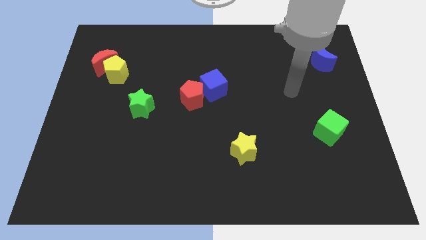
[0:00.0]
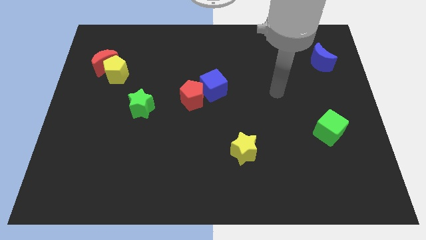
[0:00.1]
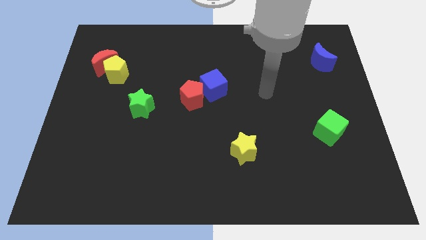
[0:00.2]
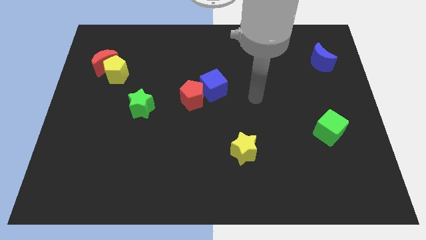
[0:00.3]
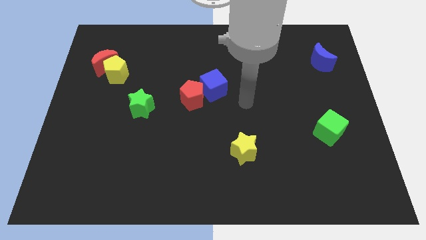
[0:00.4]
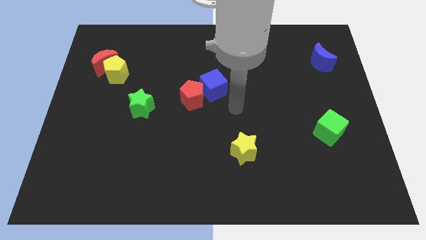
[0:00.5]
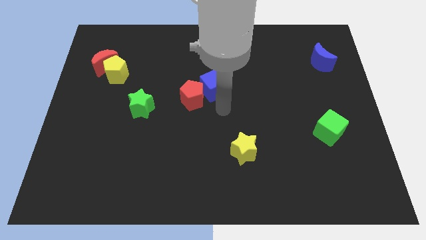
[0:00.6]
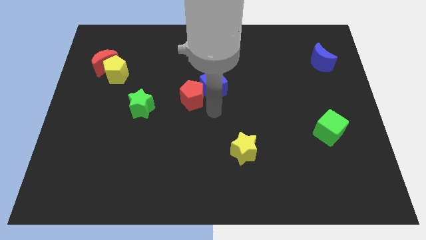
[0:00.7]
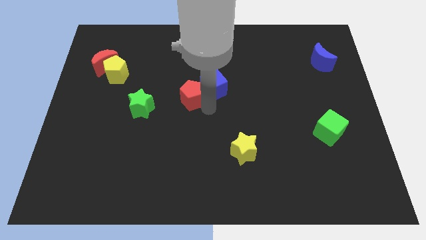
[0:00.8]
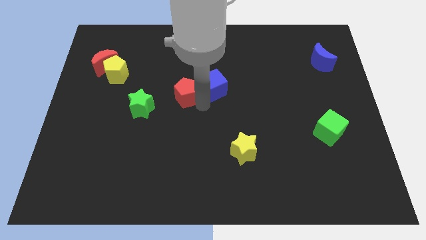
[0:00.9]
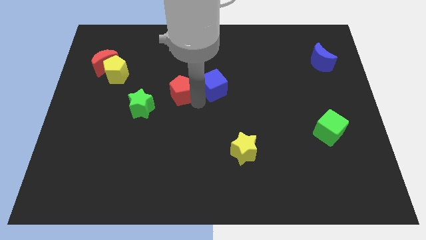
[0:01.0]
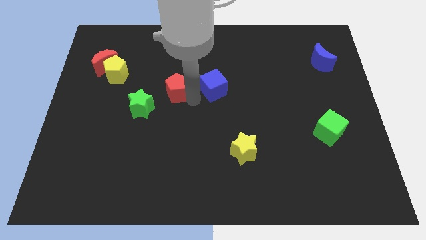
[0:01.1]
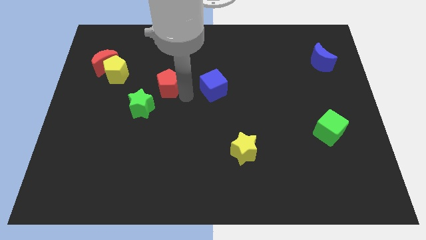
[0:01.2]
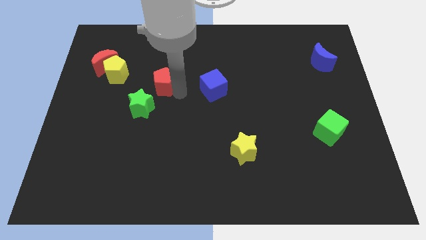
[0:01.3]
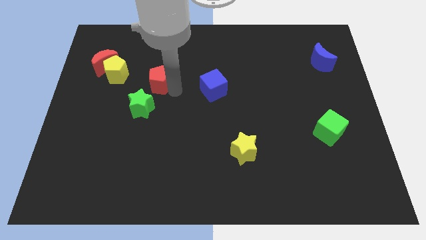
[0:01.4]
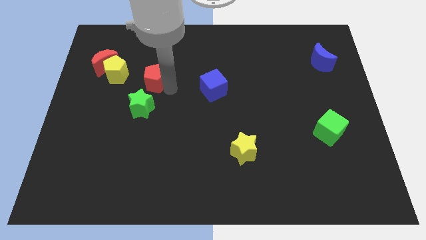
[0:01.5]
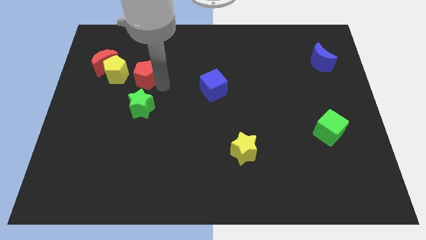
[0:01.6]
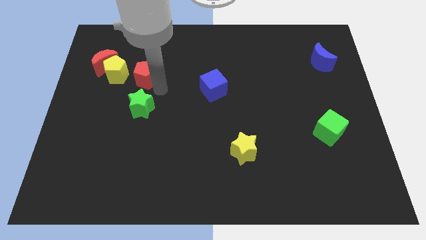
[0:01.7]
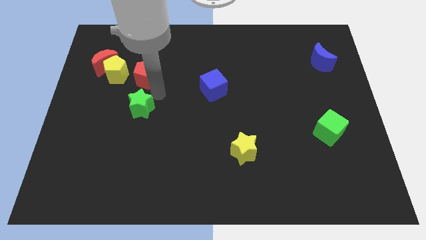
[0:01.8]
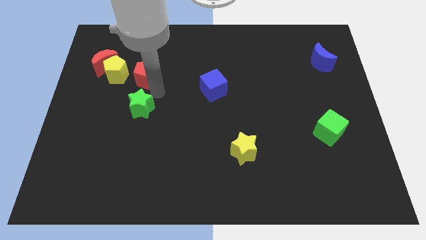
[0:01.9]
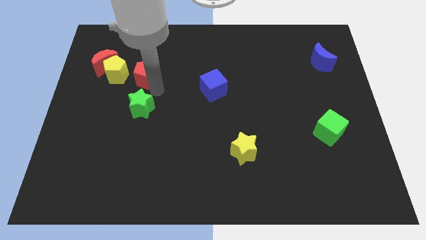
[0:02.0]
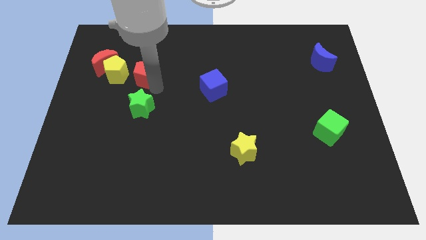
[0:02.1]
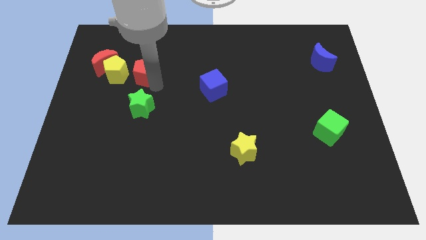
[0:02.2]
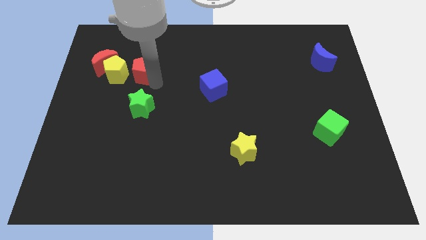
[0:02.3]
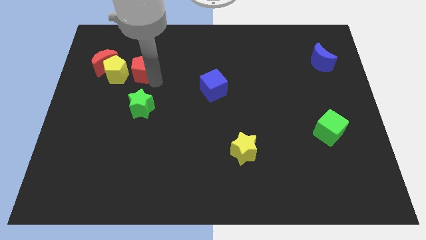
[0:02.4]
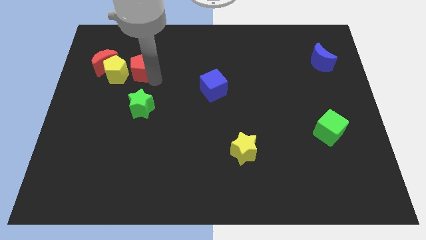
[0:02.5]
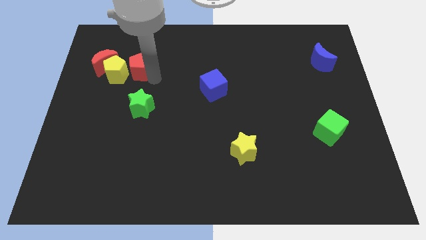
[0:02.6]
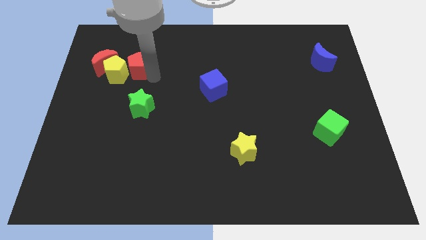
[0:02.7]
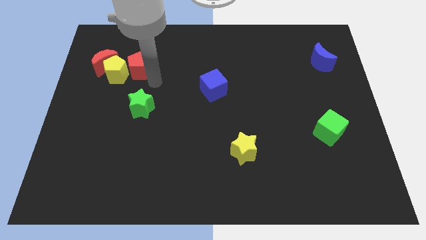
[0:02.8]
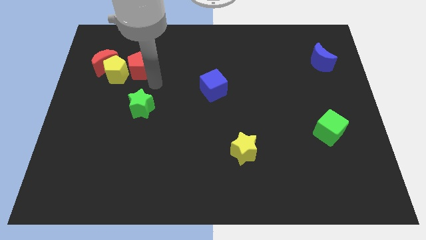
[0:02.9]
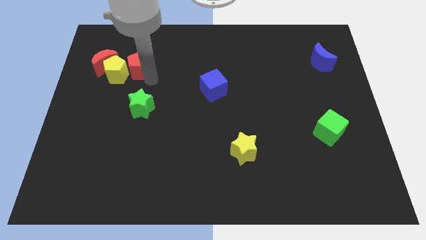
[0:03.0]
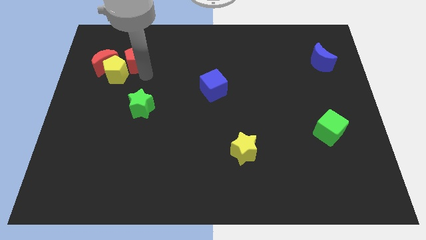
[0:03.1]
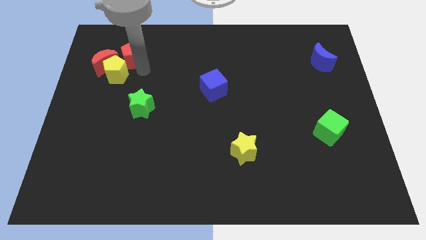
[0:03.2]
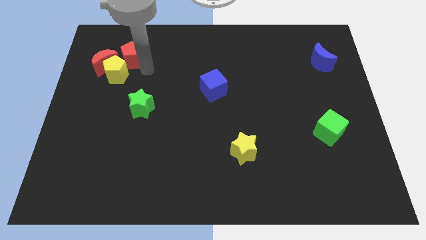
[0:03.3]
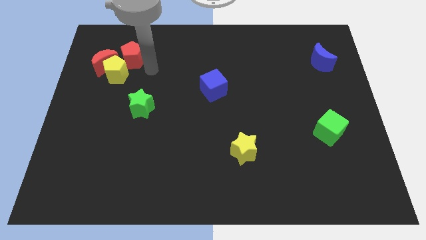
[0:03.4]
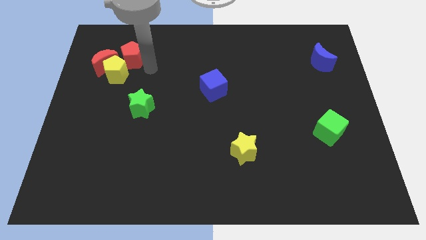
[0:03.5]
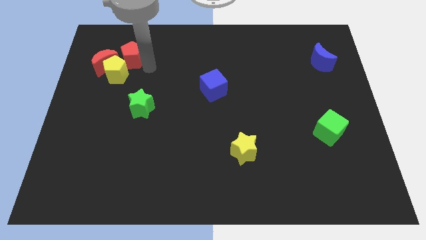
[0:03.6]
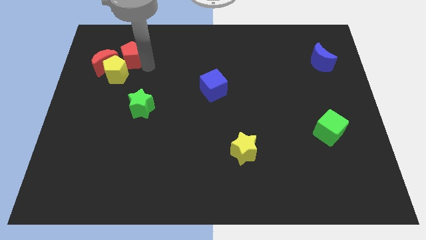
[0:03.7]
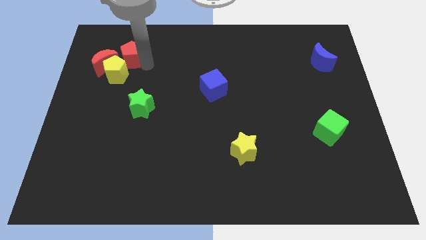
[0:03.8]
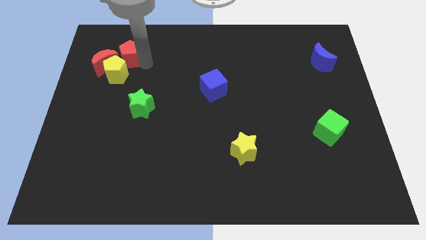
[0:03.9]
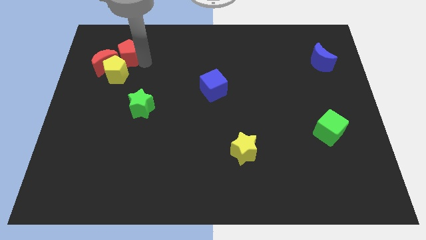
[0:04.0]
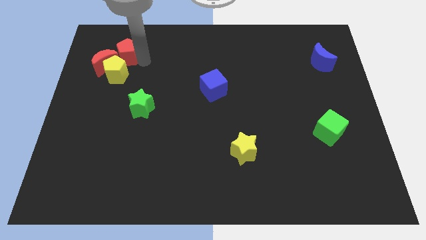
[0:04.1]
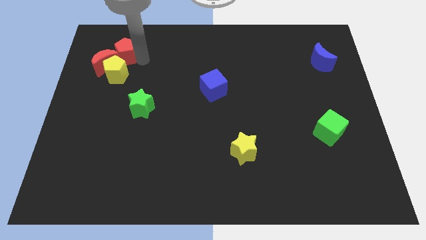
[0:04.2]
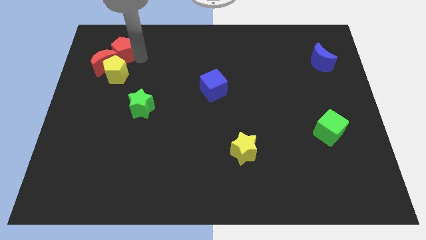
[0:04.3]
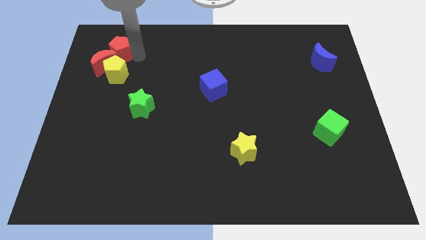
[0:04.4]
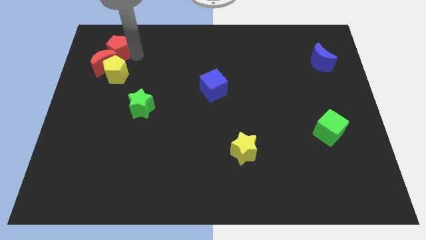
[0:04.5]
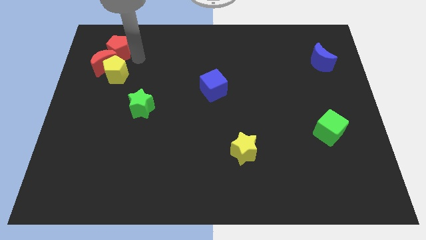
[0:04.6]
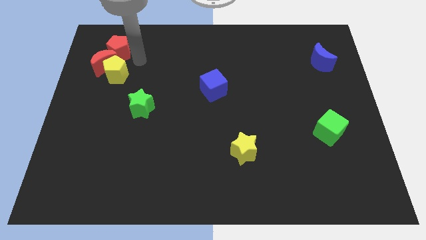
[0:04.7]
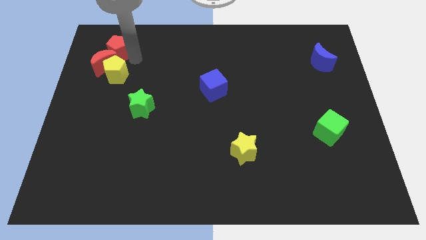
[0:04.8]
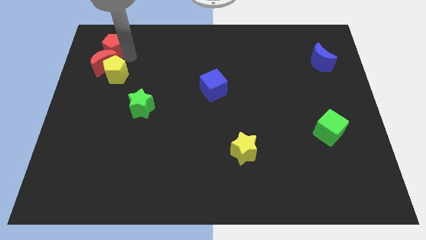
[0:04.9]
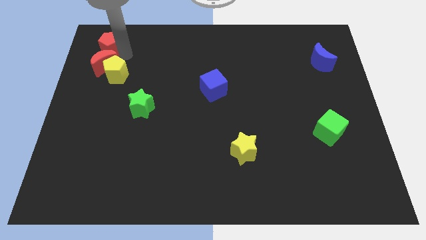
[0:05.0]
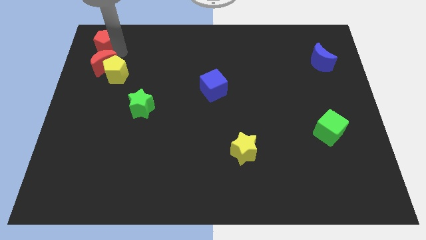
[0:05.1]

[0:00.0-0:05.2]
push the red pentagon to the top left of the board

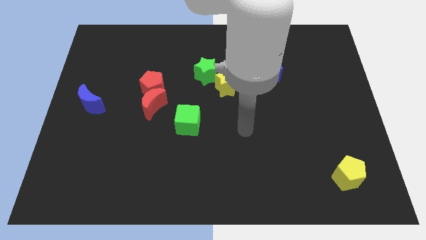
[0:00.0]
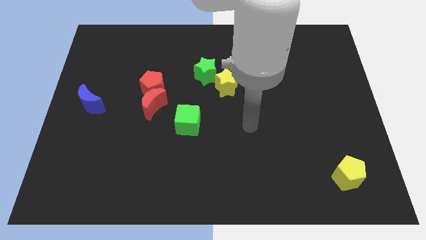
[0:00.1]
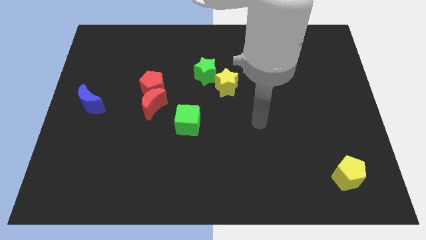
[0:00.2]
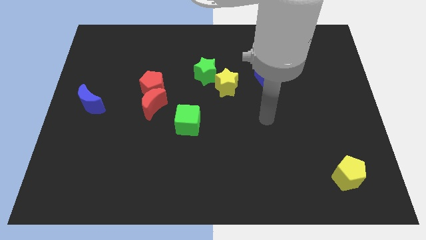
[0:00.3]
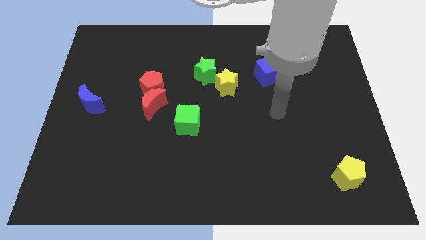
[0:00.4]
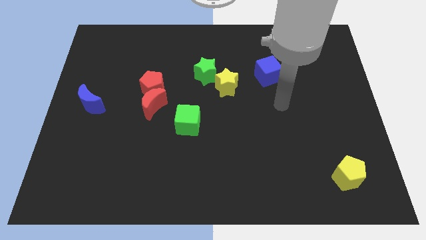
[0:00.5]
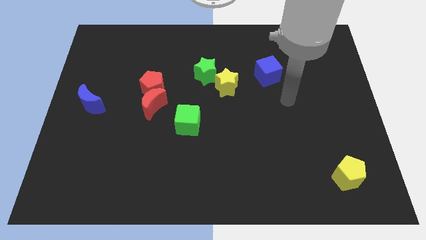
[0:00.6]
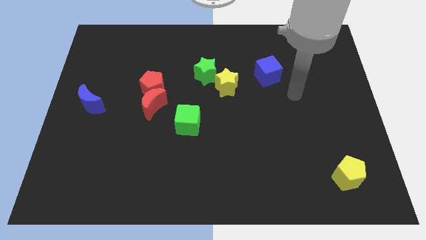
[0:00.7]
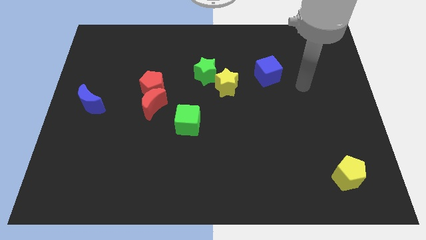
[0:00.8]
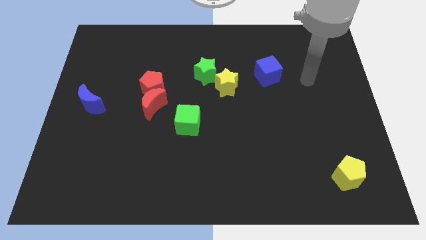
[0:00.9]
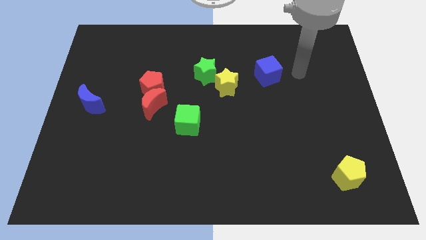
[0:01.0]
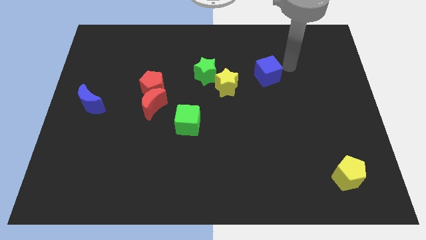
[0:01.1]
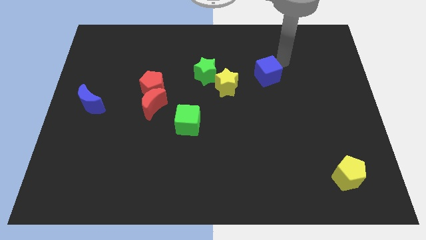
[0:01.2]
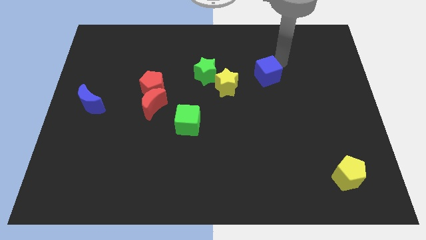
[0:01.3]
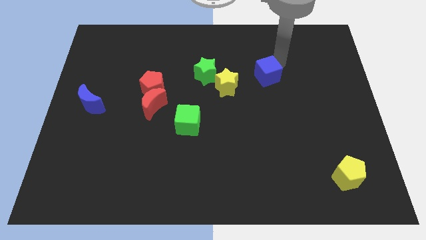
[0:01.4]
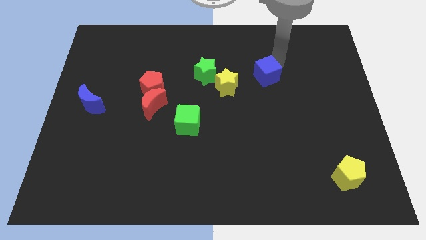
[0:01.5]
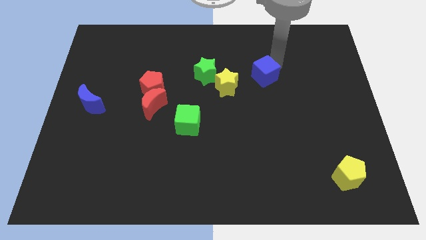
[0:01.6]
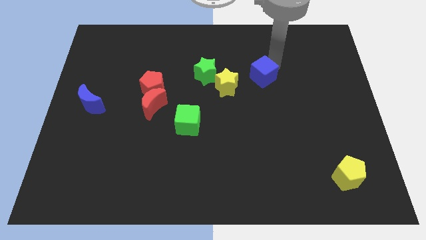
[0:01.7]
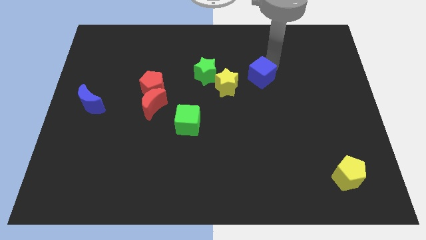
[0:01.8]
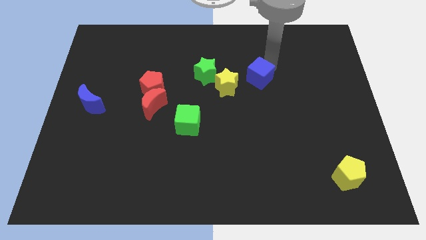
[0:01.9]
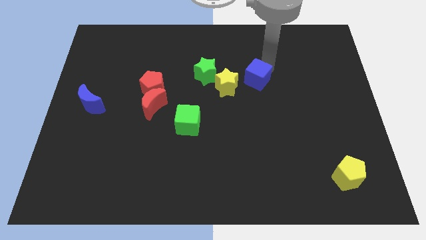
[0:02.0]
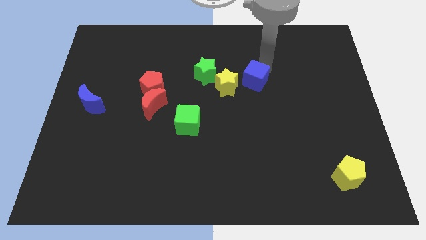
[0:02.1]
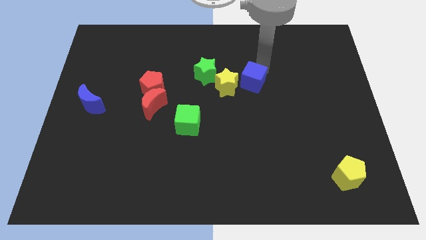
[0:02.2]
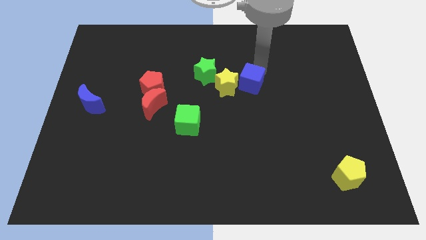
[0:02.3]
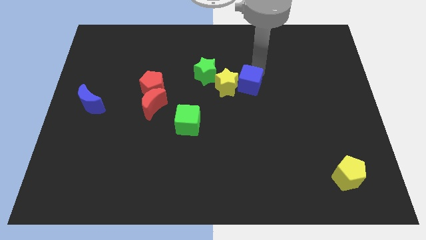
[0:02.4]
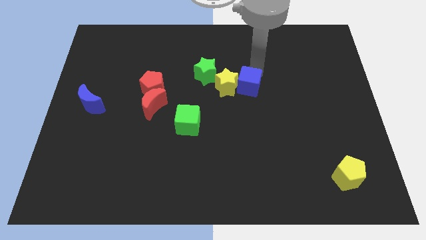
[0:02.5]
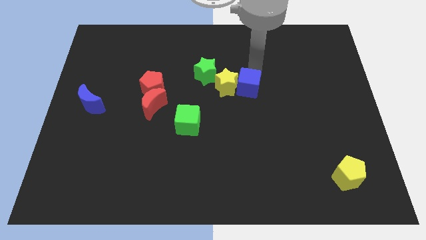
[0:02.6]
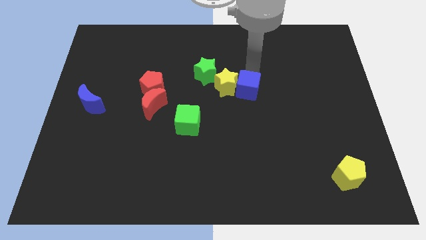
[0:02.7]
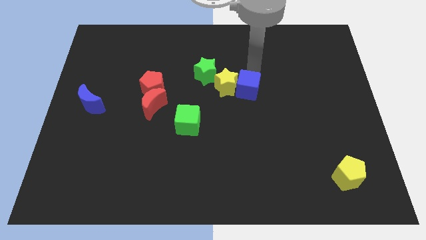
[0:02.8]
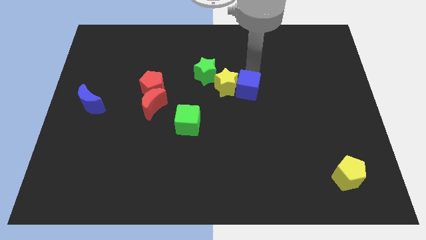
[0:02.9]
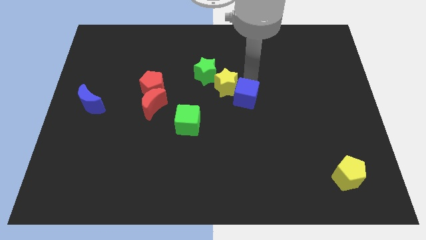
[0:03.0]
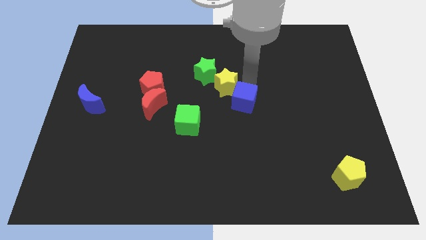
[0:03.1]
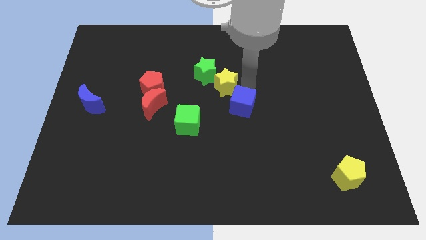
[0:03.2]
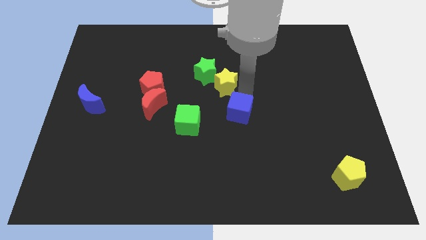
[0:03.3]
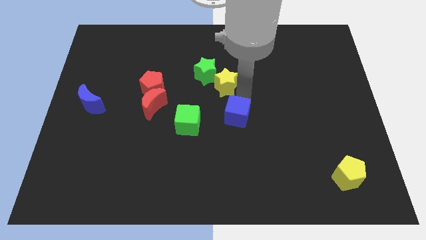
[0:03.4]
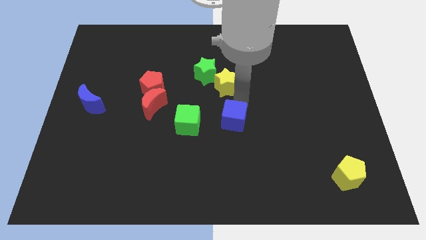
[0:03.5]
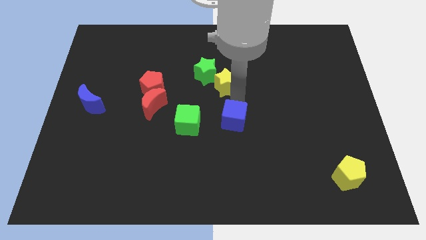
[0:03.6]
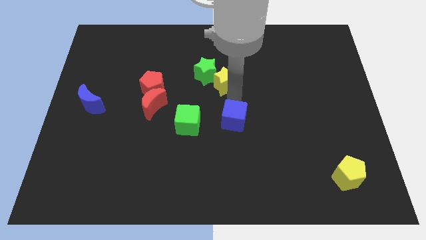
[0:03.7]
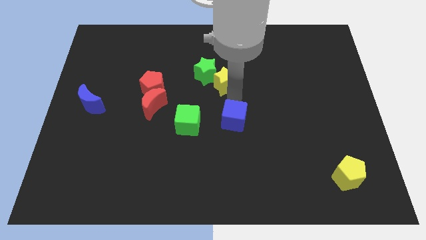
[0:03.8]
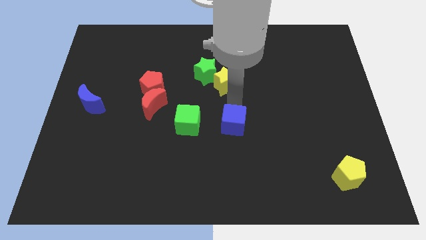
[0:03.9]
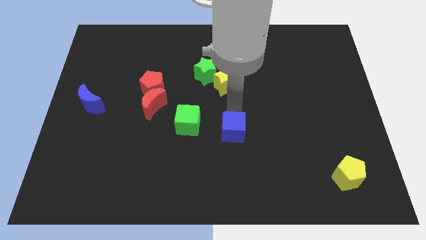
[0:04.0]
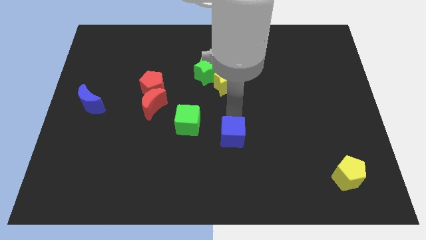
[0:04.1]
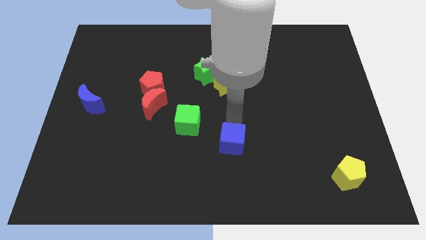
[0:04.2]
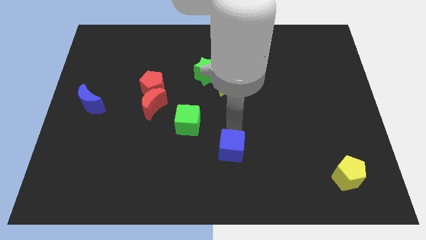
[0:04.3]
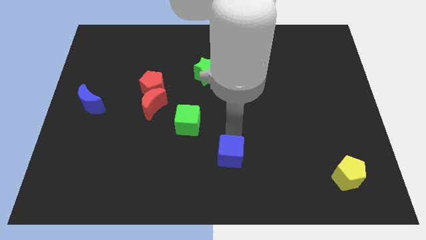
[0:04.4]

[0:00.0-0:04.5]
put the blue cube to the bottom side
